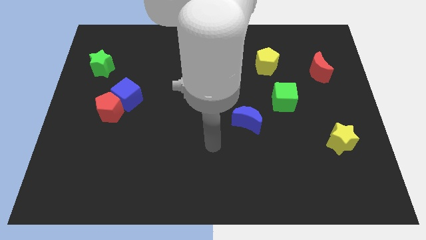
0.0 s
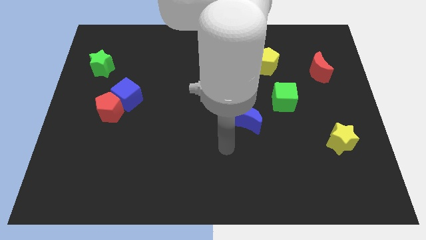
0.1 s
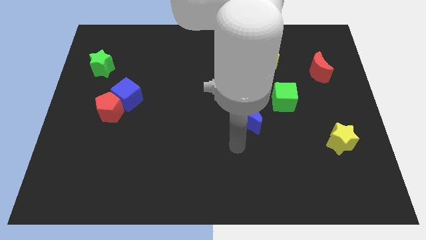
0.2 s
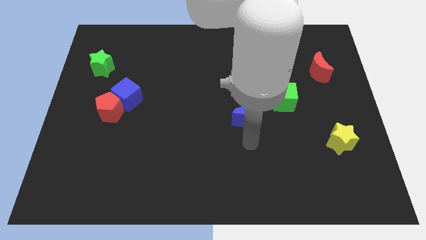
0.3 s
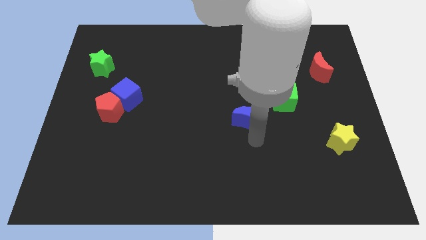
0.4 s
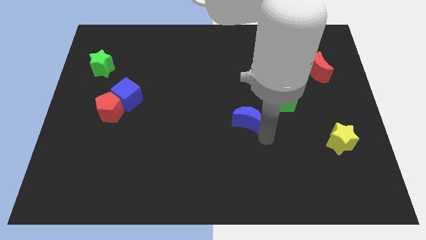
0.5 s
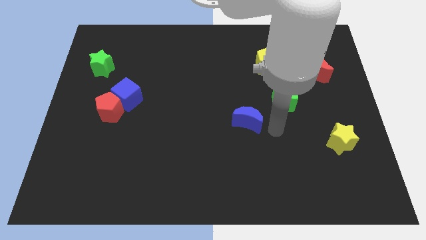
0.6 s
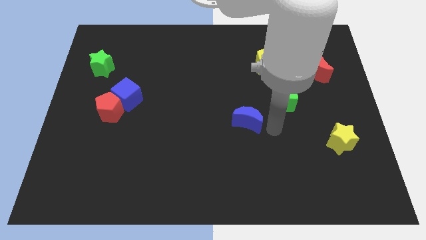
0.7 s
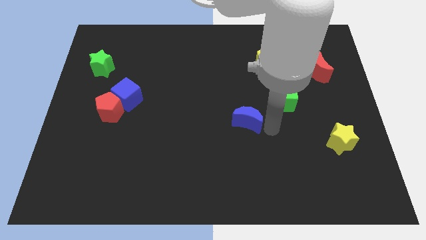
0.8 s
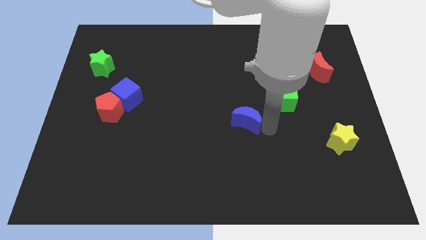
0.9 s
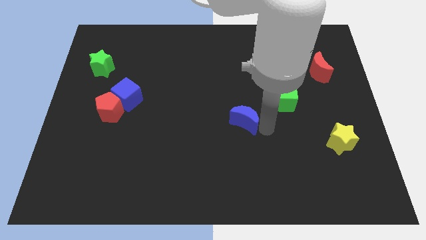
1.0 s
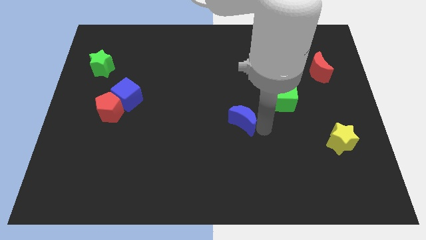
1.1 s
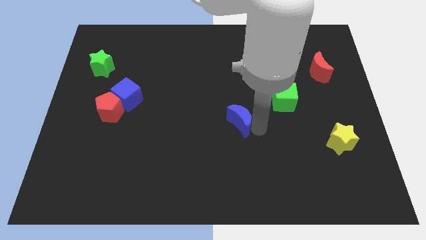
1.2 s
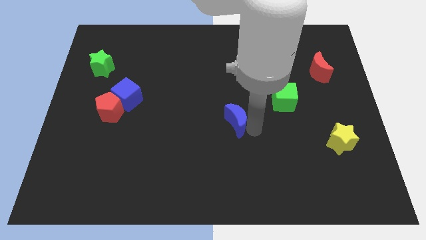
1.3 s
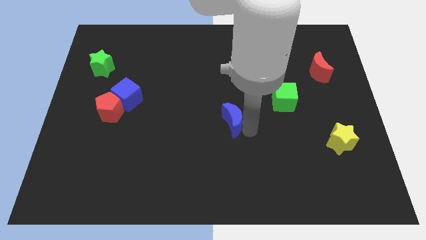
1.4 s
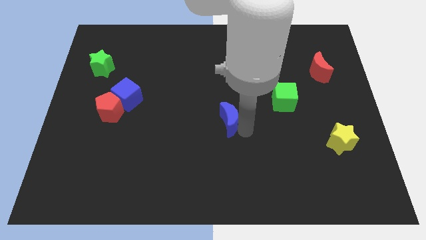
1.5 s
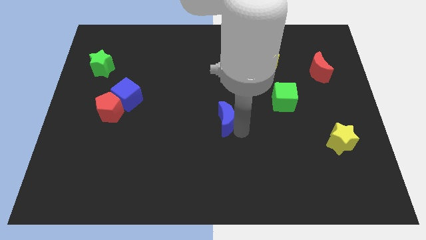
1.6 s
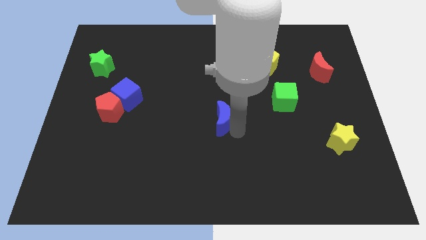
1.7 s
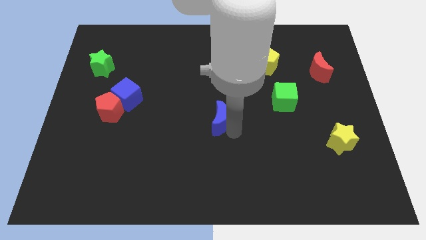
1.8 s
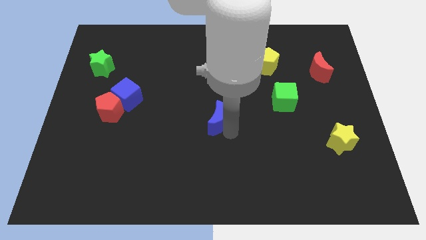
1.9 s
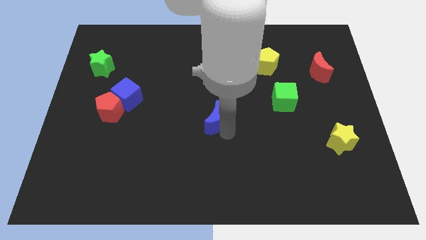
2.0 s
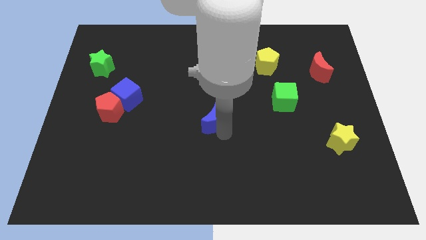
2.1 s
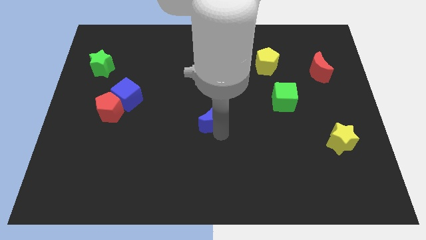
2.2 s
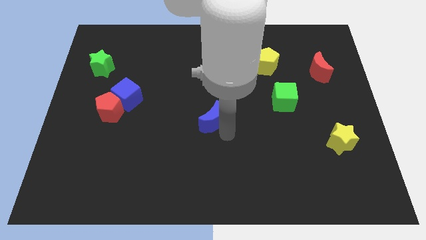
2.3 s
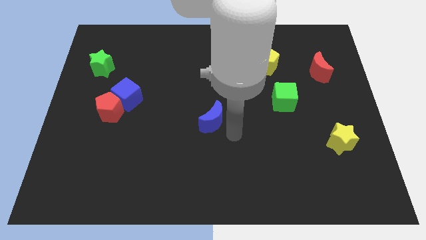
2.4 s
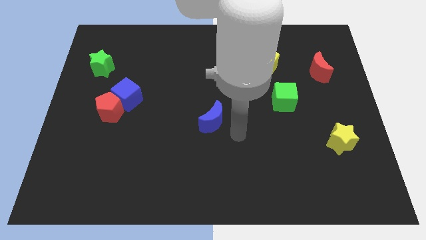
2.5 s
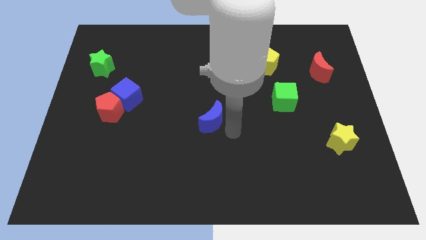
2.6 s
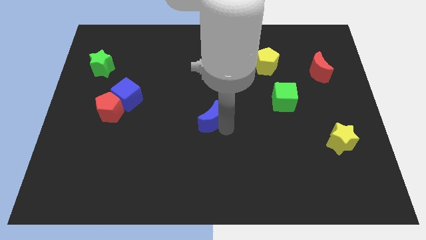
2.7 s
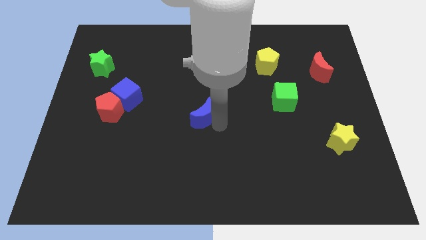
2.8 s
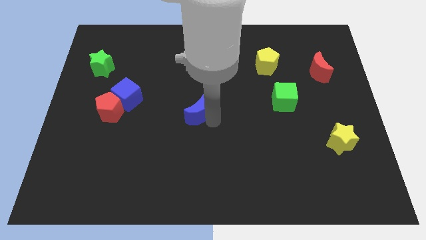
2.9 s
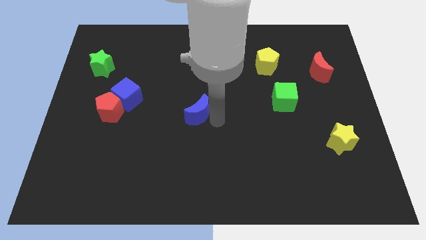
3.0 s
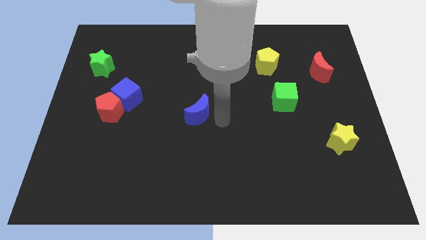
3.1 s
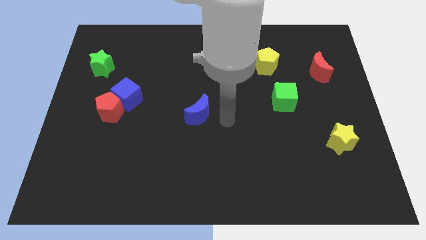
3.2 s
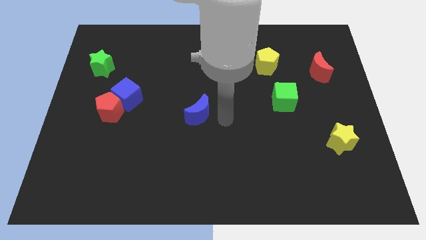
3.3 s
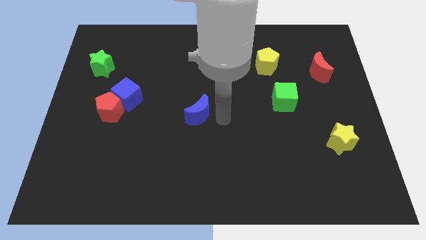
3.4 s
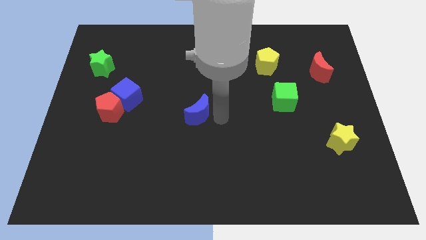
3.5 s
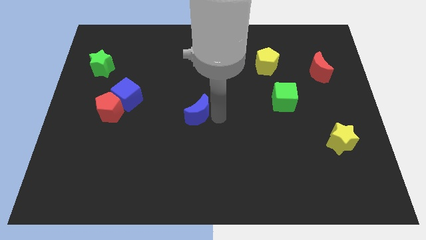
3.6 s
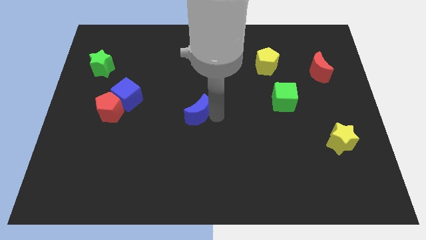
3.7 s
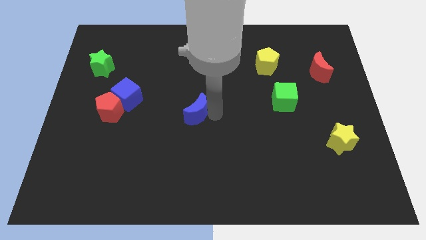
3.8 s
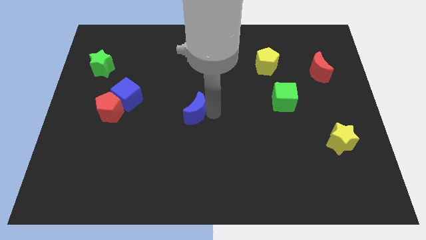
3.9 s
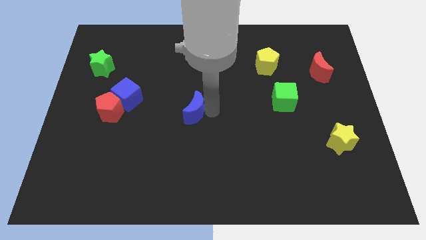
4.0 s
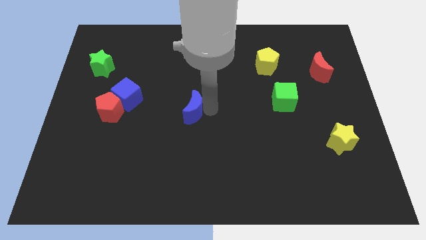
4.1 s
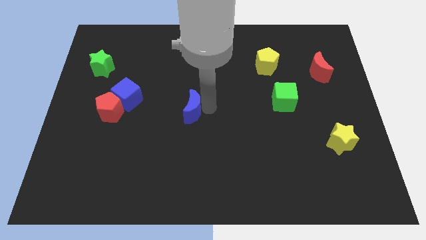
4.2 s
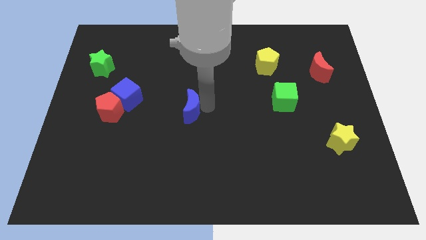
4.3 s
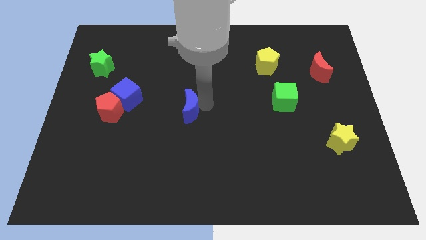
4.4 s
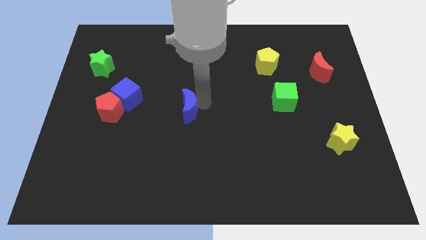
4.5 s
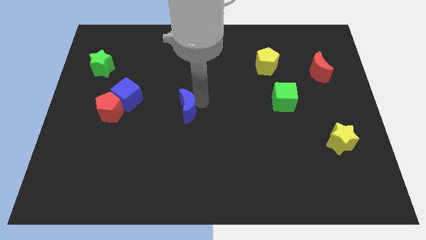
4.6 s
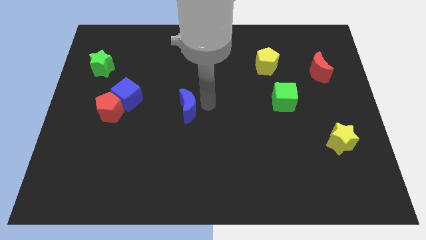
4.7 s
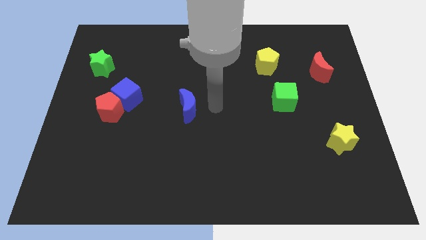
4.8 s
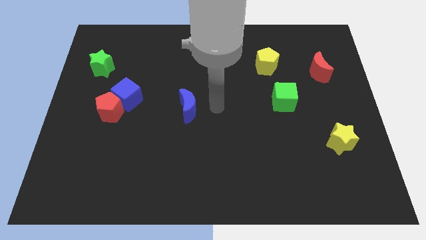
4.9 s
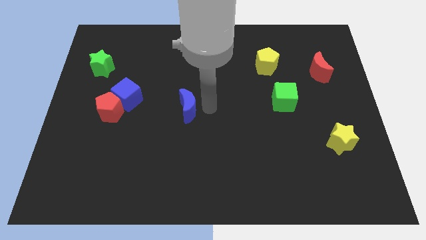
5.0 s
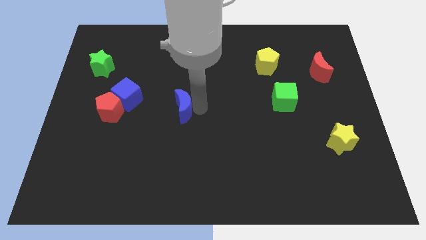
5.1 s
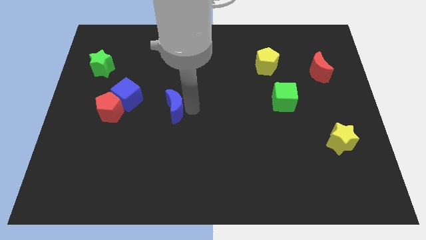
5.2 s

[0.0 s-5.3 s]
push the blue moon to the right of the red pentagon

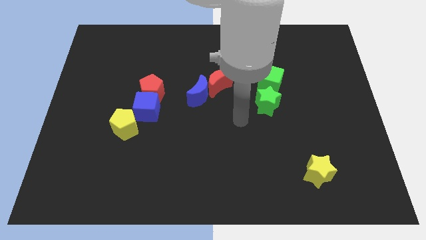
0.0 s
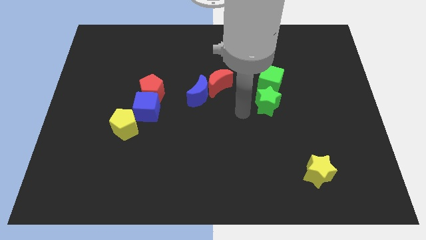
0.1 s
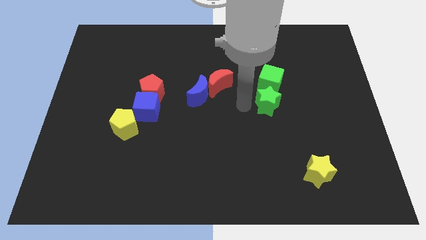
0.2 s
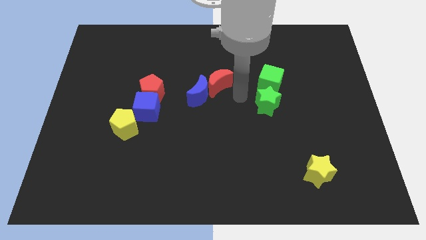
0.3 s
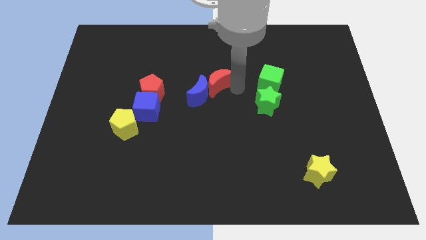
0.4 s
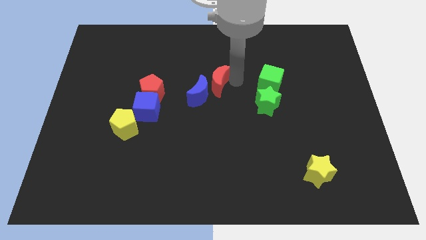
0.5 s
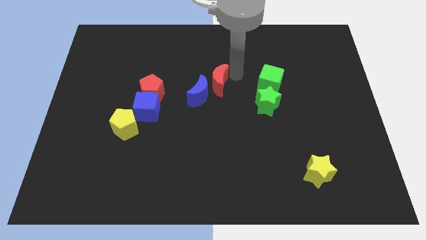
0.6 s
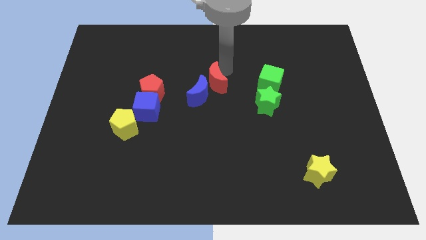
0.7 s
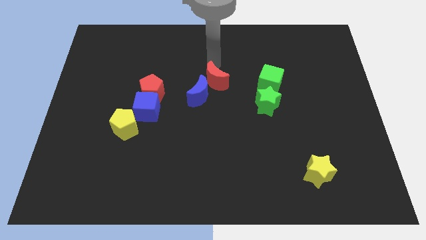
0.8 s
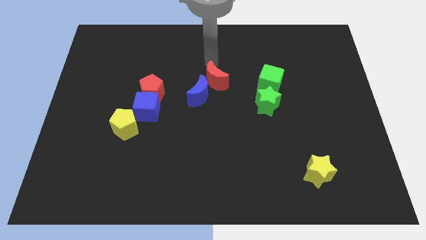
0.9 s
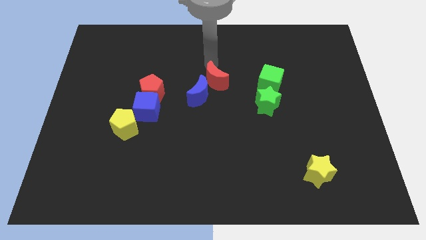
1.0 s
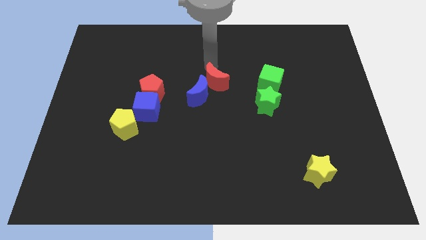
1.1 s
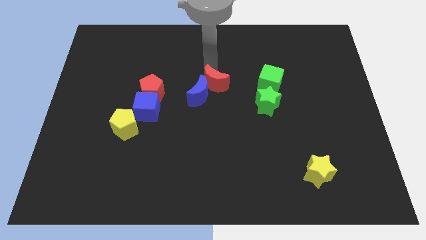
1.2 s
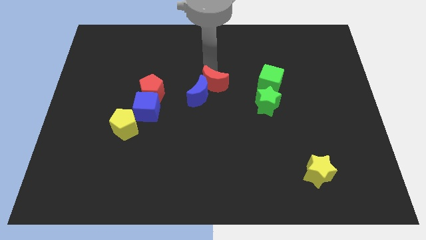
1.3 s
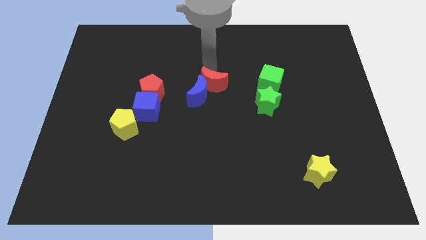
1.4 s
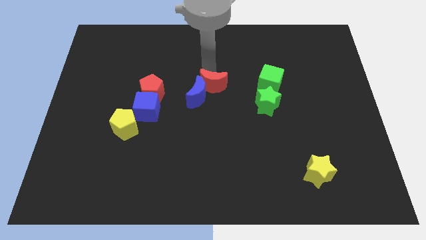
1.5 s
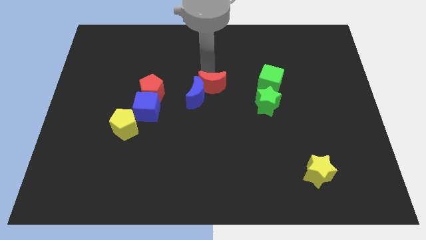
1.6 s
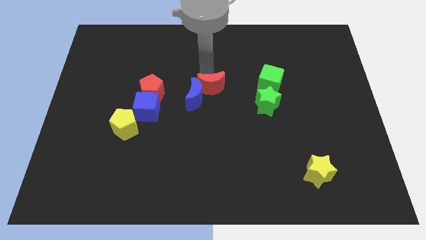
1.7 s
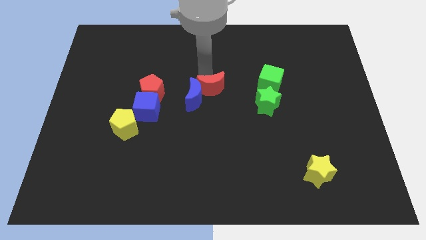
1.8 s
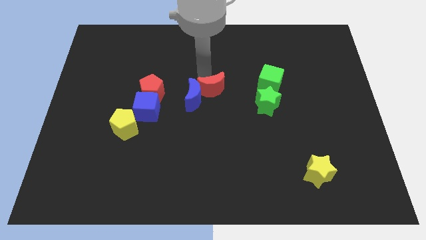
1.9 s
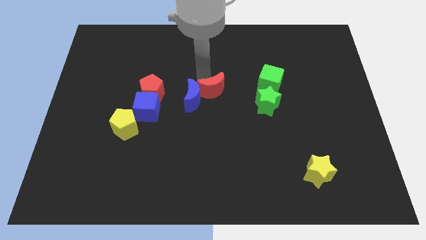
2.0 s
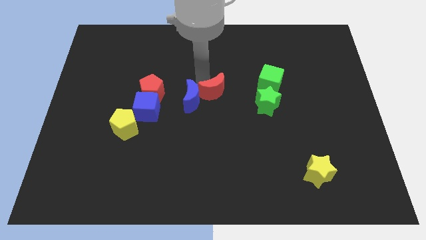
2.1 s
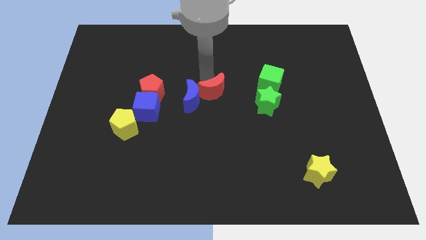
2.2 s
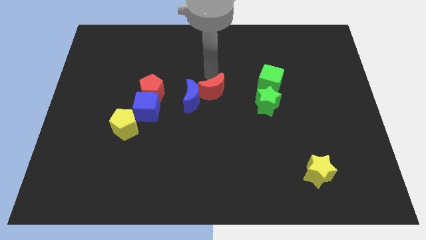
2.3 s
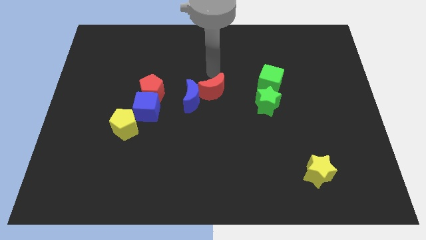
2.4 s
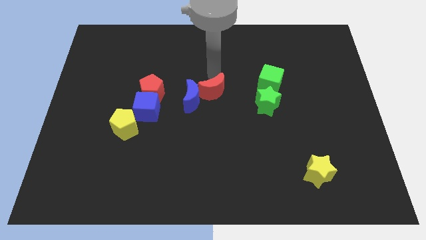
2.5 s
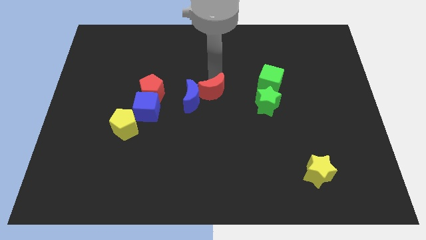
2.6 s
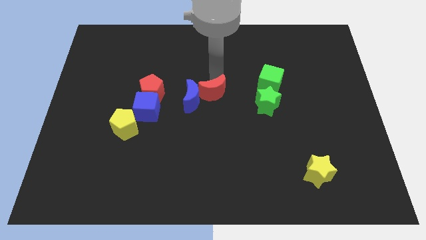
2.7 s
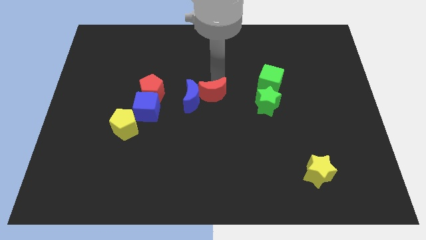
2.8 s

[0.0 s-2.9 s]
slide the red moon to the bottom right of the blue moon
